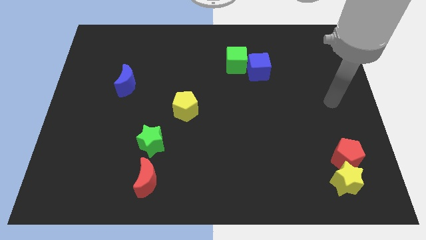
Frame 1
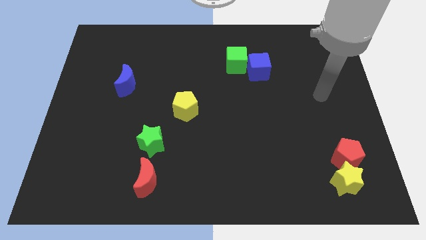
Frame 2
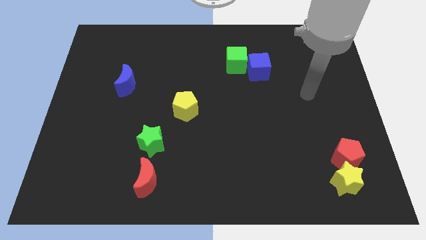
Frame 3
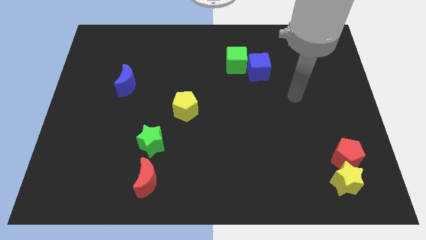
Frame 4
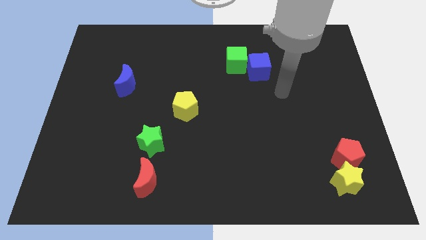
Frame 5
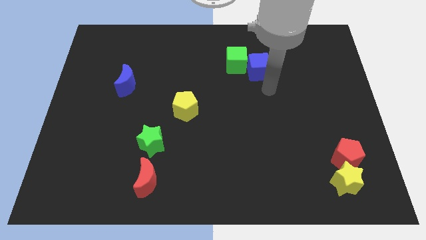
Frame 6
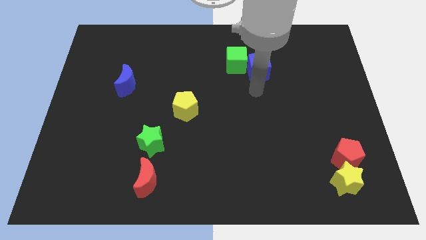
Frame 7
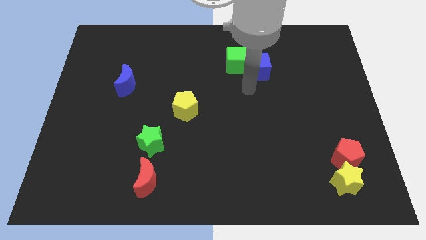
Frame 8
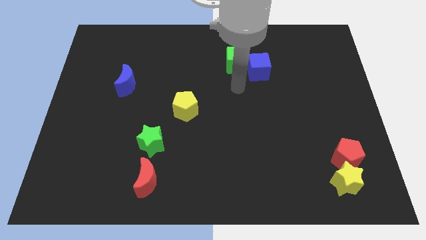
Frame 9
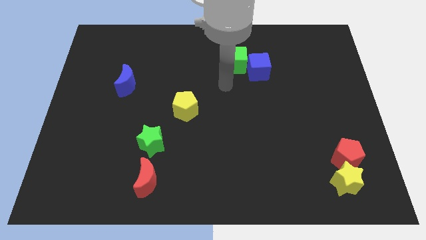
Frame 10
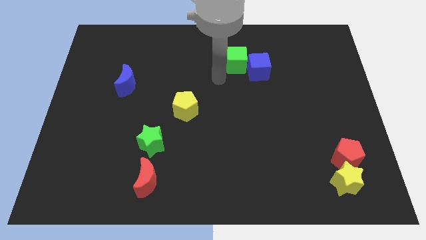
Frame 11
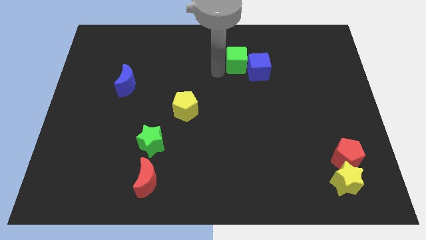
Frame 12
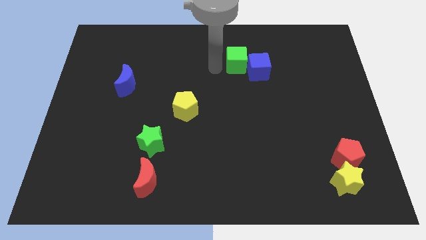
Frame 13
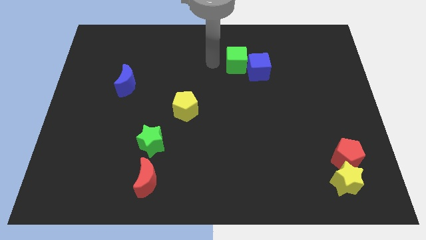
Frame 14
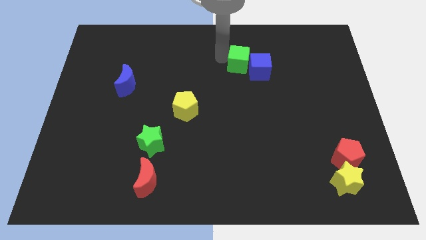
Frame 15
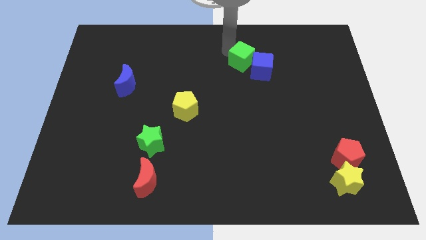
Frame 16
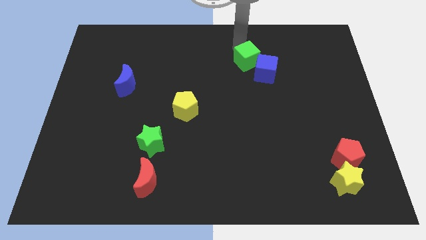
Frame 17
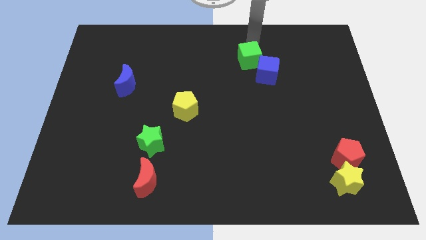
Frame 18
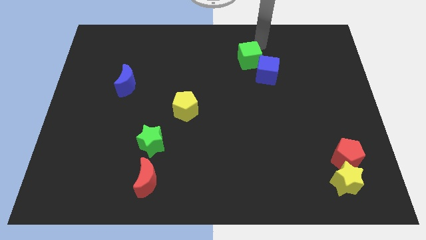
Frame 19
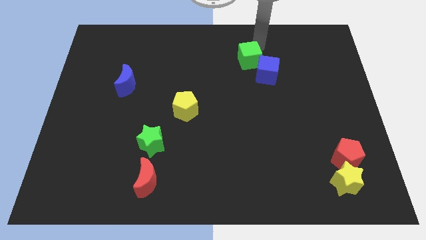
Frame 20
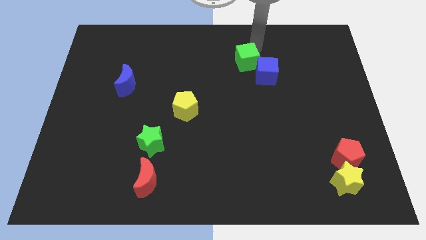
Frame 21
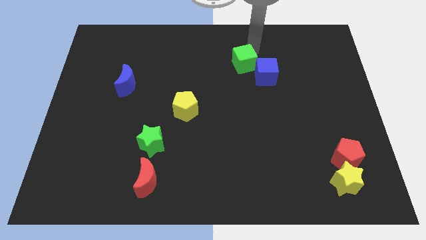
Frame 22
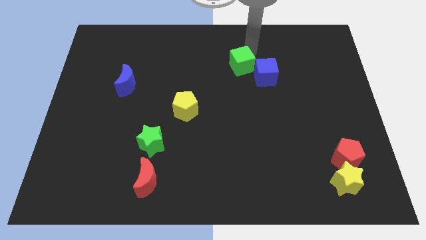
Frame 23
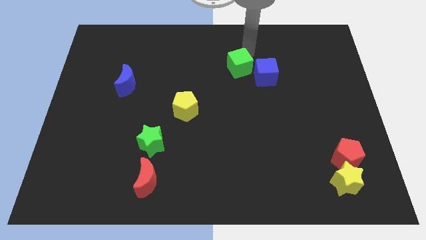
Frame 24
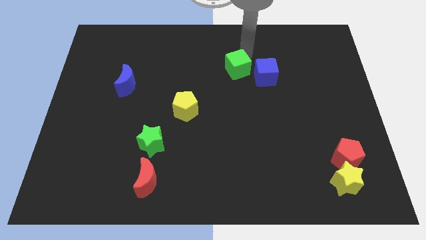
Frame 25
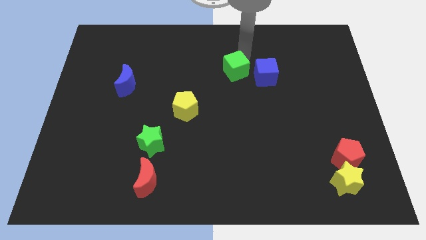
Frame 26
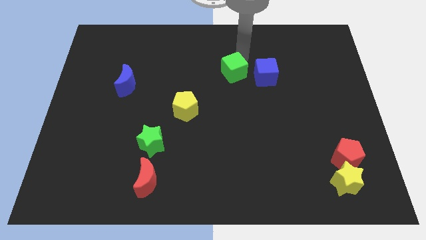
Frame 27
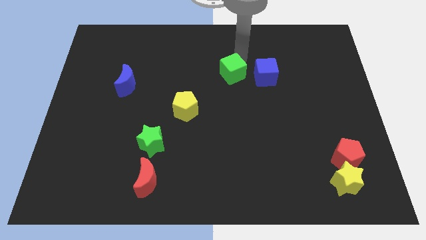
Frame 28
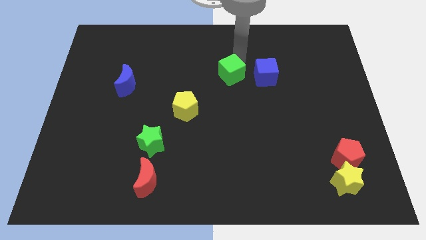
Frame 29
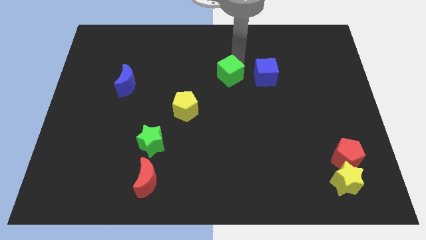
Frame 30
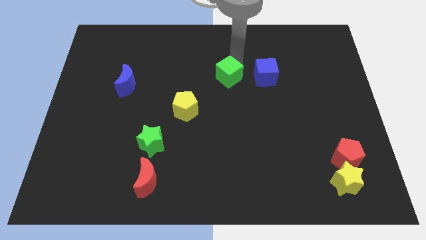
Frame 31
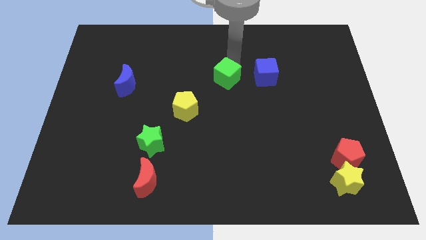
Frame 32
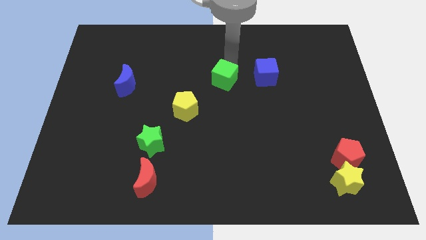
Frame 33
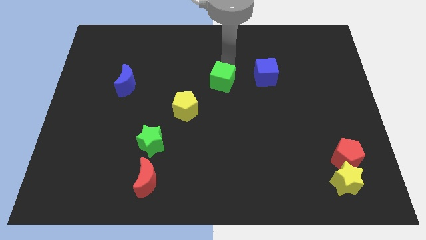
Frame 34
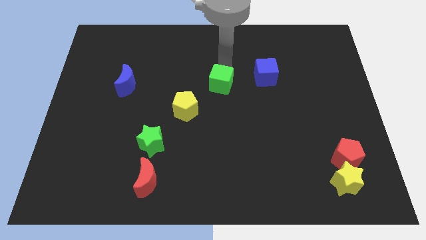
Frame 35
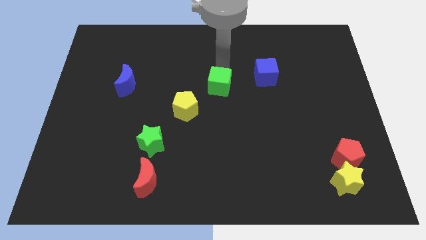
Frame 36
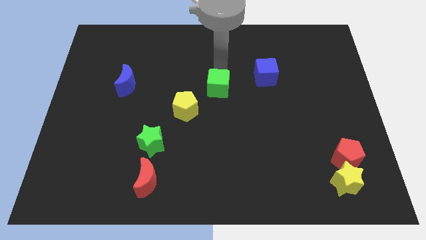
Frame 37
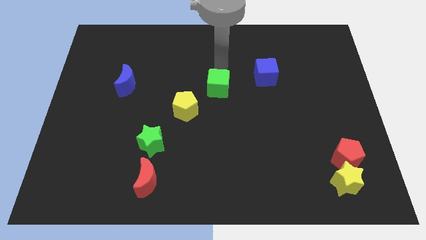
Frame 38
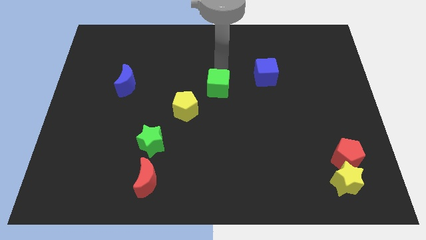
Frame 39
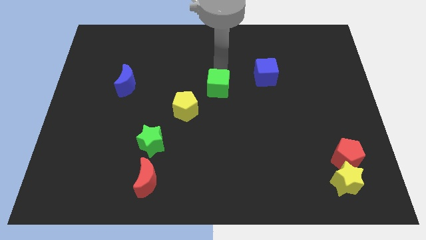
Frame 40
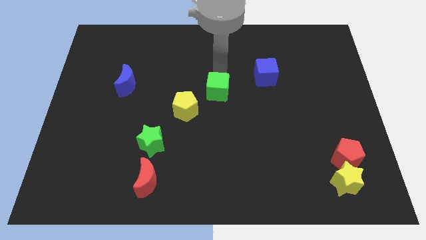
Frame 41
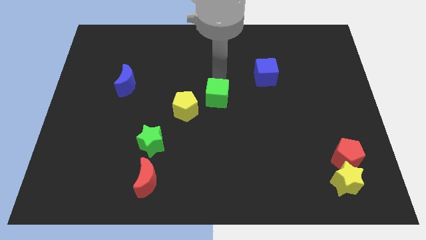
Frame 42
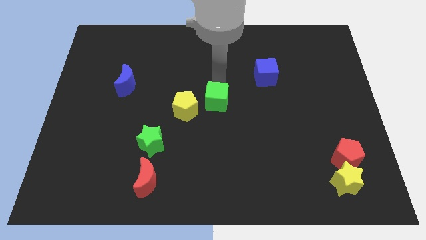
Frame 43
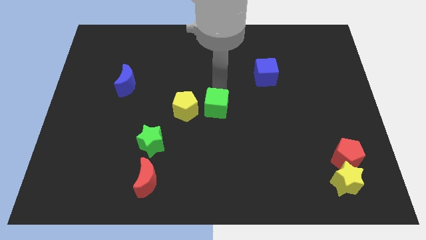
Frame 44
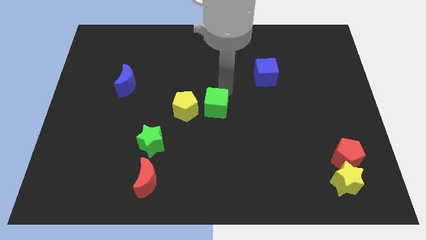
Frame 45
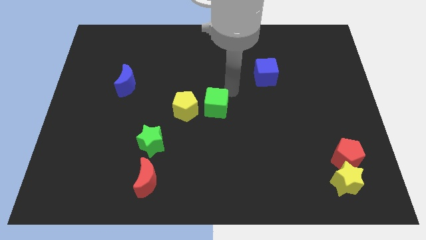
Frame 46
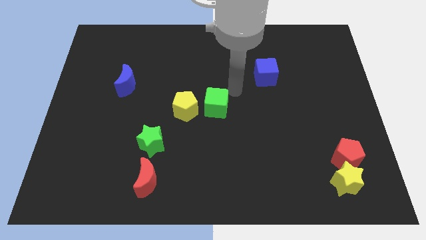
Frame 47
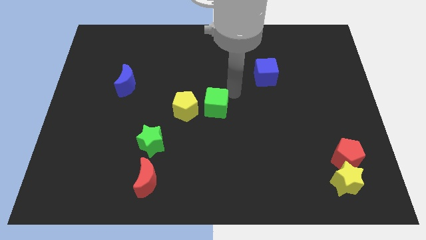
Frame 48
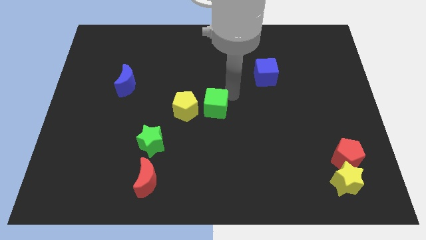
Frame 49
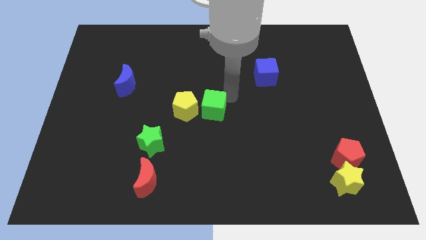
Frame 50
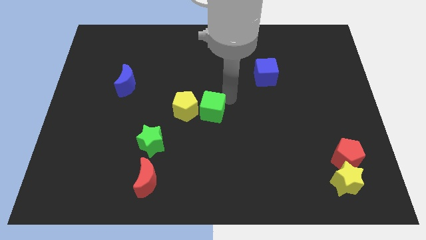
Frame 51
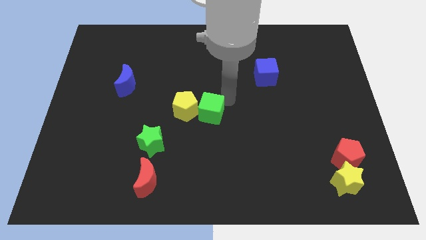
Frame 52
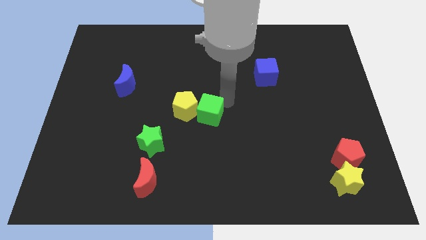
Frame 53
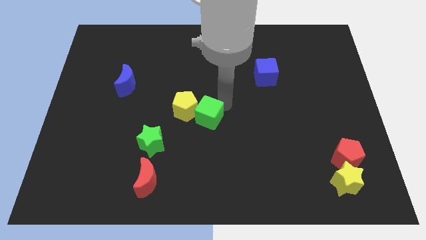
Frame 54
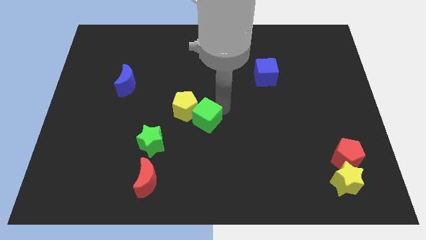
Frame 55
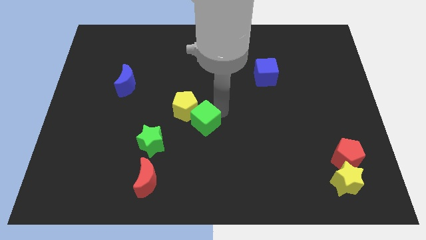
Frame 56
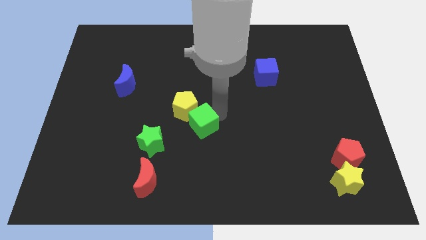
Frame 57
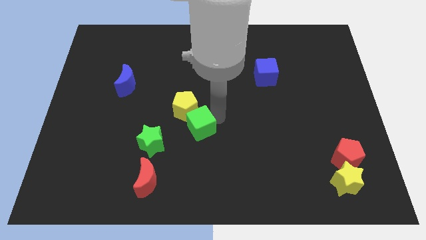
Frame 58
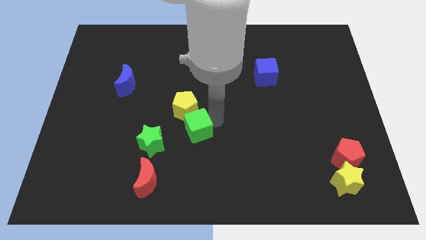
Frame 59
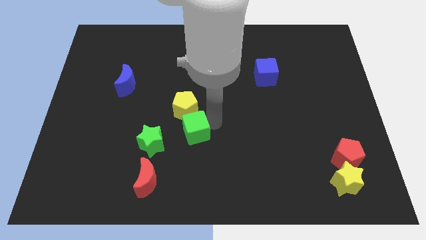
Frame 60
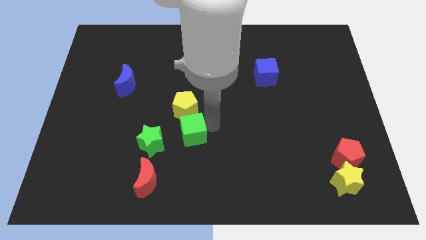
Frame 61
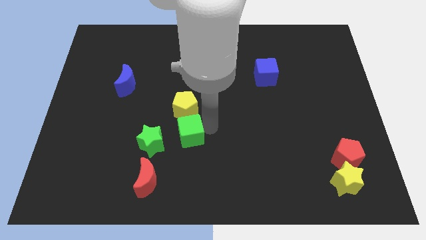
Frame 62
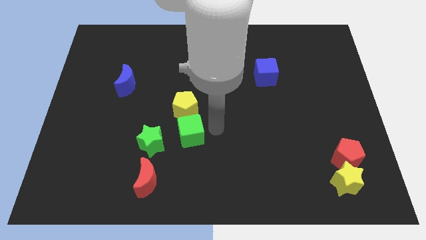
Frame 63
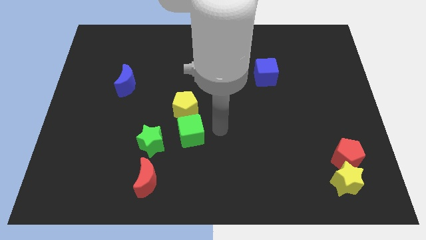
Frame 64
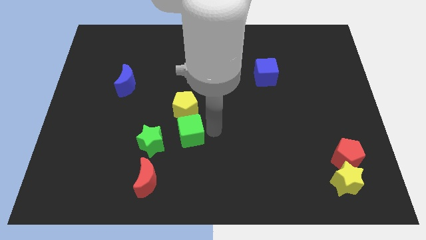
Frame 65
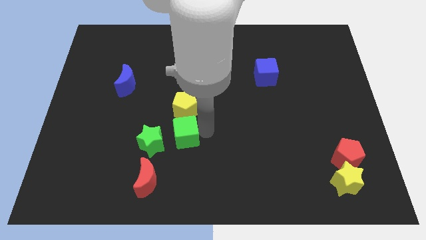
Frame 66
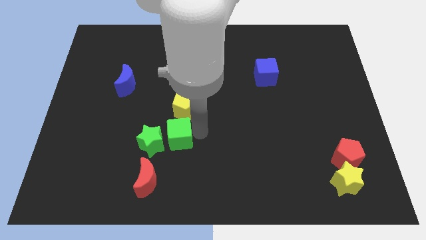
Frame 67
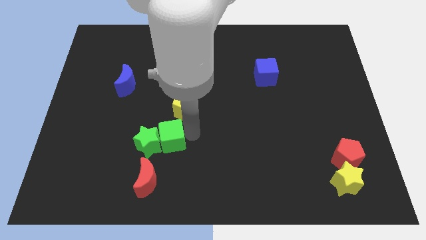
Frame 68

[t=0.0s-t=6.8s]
move the green cube close to the green star

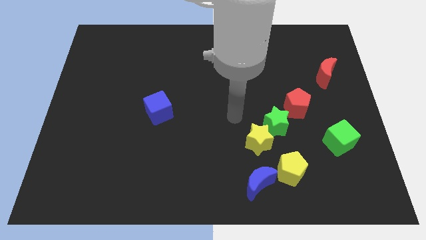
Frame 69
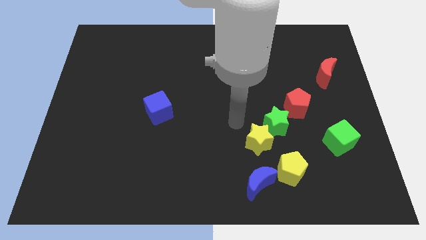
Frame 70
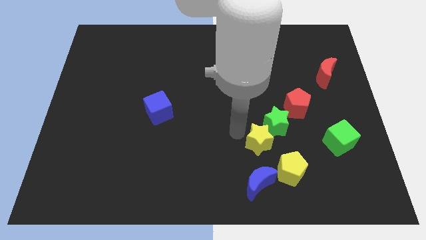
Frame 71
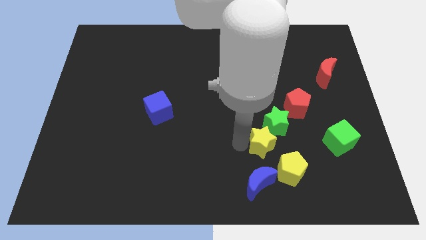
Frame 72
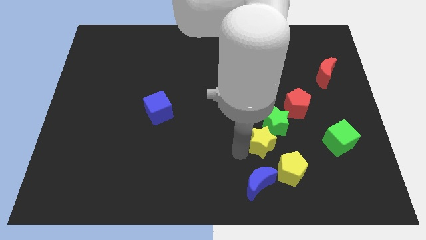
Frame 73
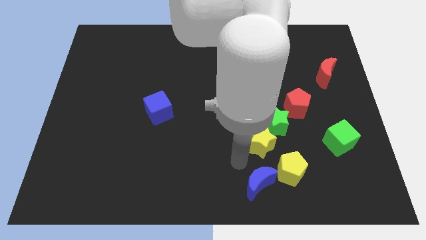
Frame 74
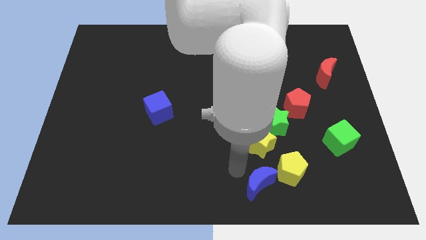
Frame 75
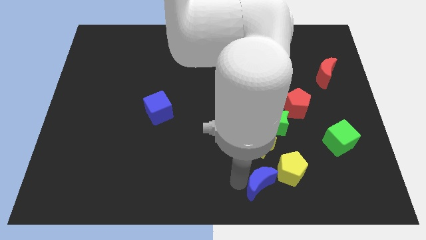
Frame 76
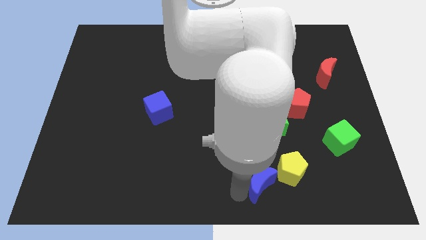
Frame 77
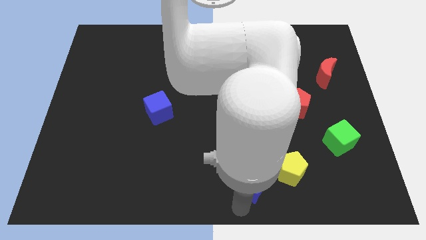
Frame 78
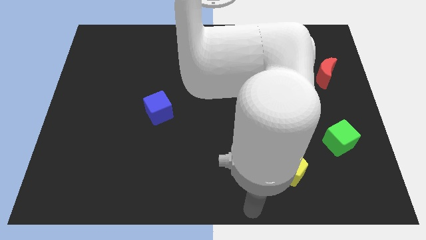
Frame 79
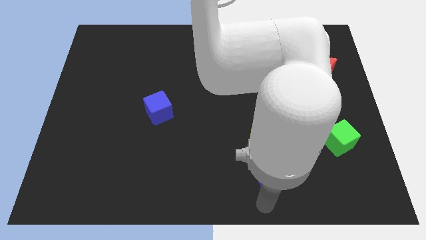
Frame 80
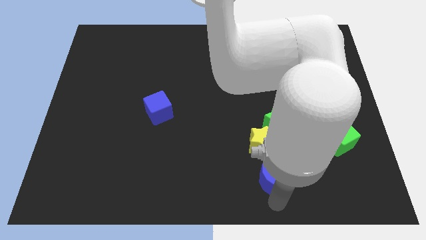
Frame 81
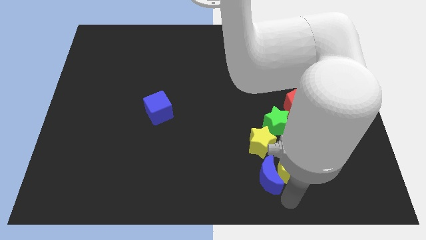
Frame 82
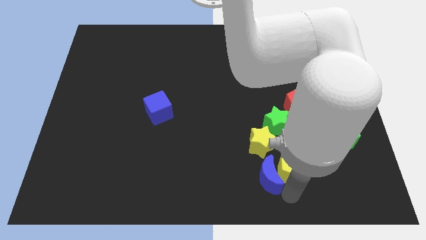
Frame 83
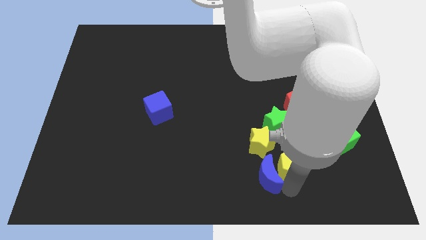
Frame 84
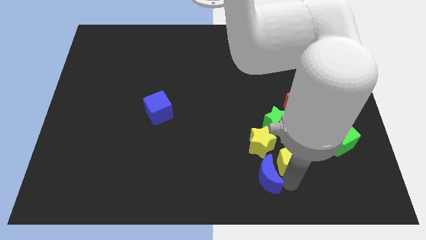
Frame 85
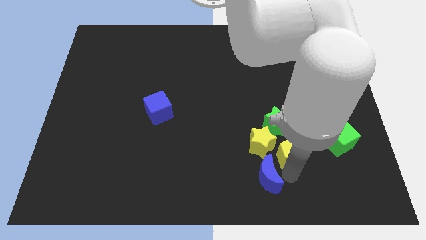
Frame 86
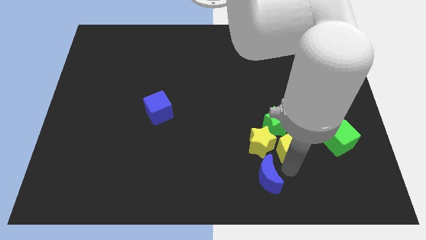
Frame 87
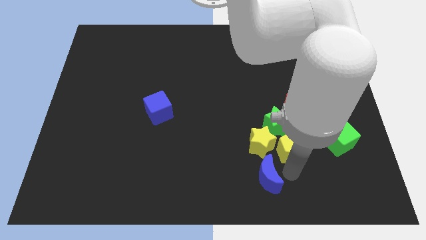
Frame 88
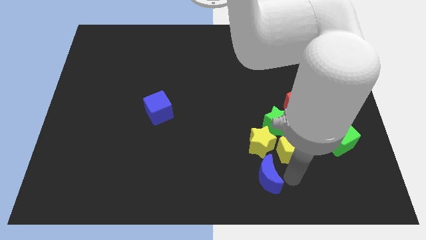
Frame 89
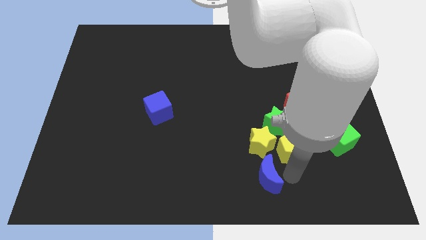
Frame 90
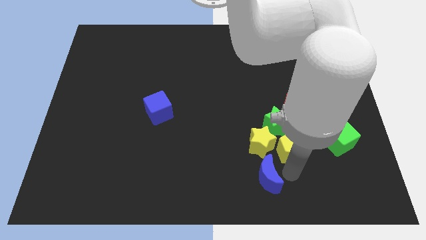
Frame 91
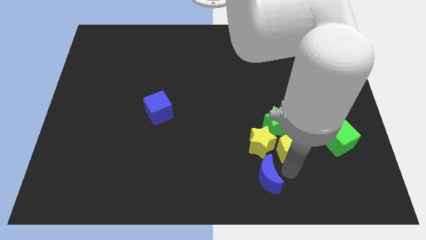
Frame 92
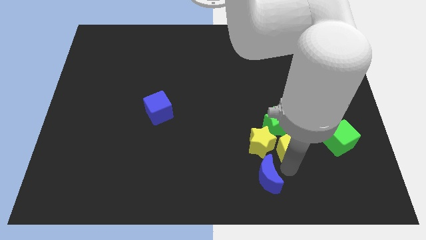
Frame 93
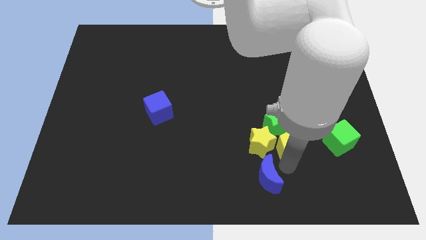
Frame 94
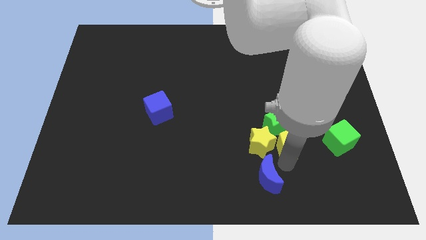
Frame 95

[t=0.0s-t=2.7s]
move the yellow pentagon close to the green star
